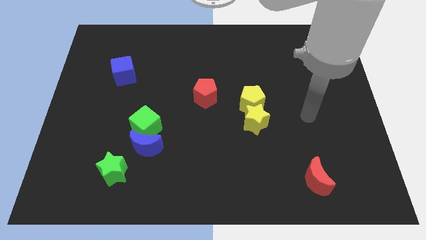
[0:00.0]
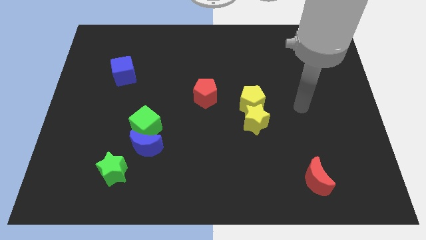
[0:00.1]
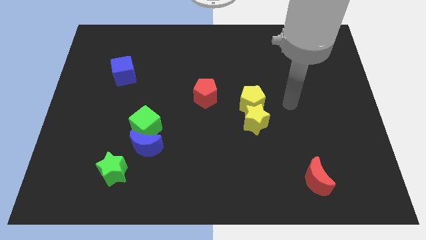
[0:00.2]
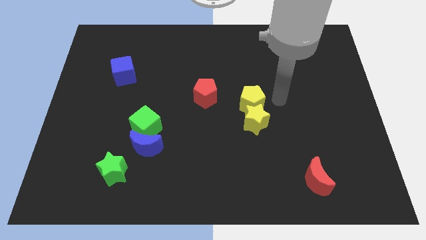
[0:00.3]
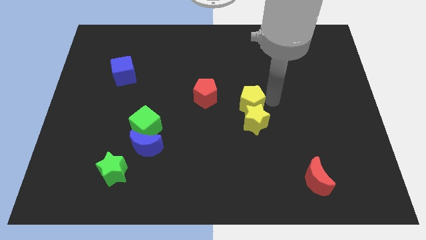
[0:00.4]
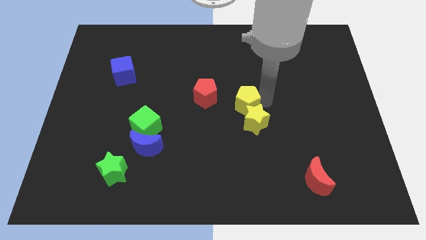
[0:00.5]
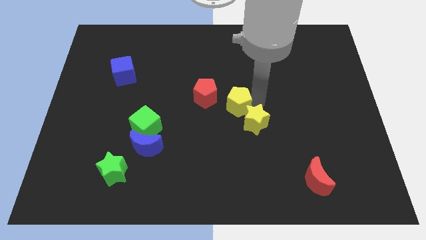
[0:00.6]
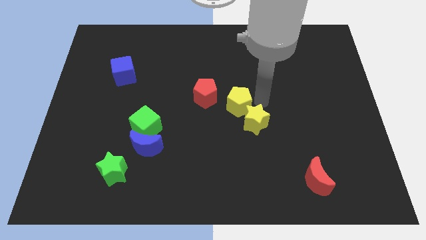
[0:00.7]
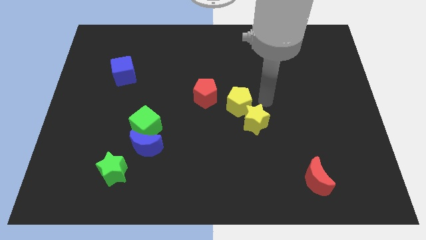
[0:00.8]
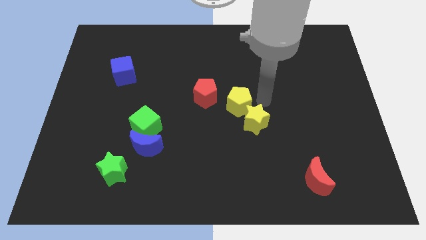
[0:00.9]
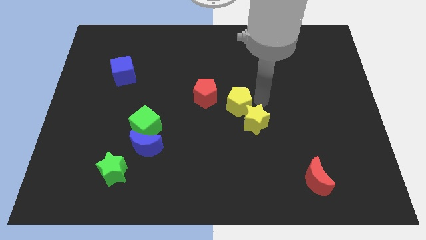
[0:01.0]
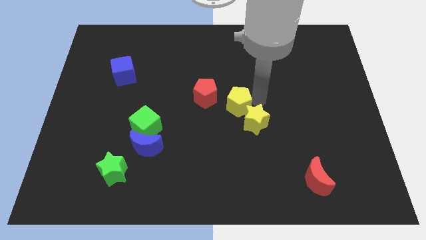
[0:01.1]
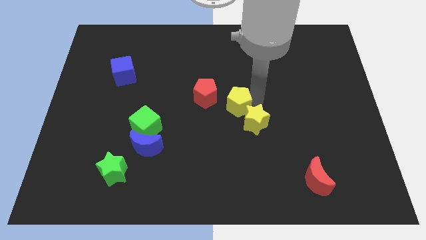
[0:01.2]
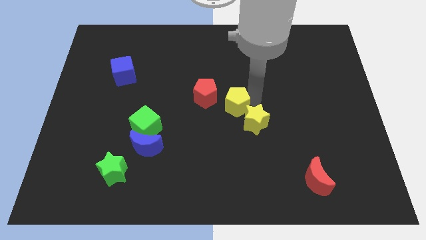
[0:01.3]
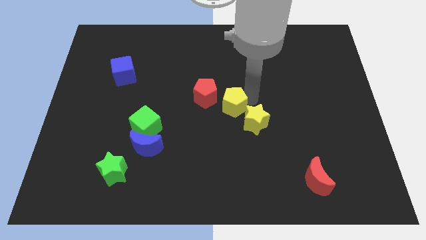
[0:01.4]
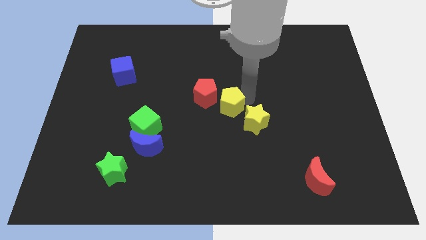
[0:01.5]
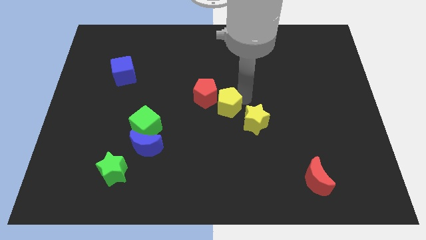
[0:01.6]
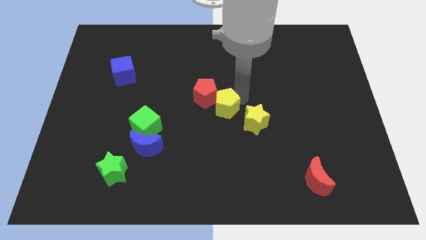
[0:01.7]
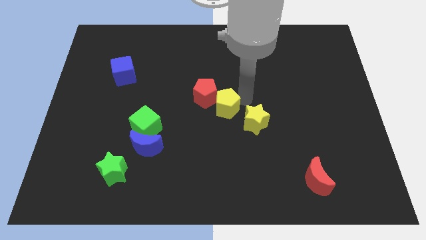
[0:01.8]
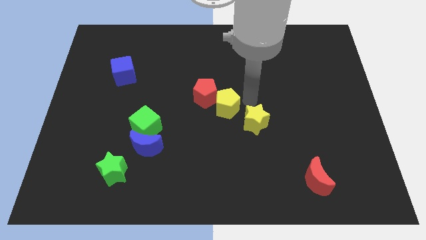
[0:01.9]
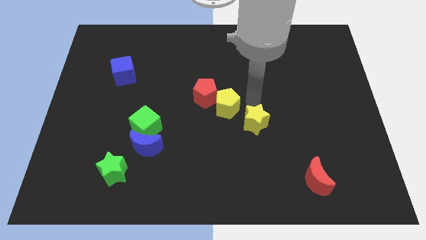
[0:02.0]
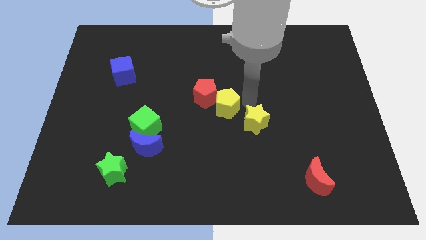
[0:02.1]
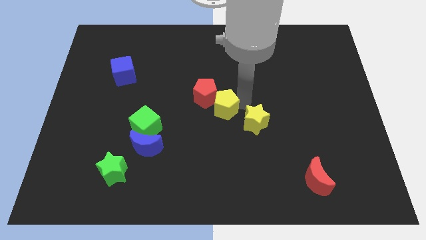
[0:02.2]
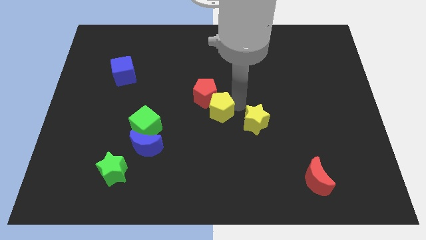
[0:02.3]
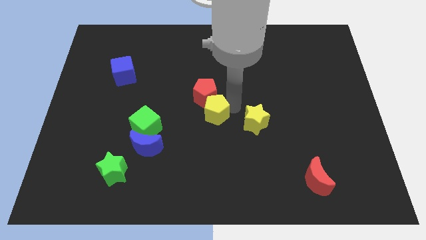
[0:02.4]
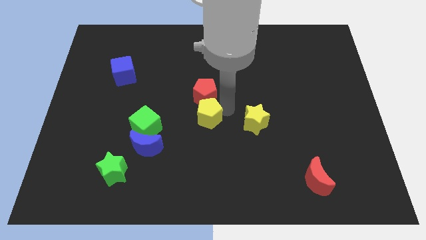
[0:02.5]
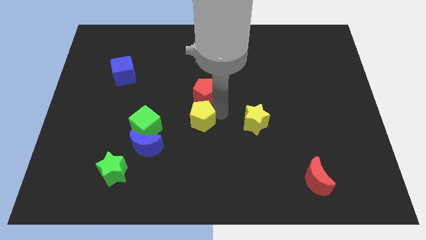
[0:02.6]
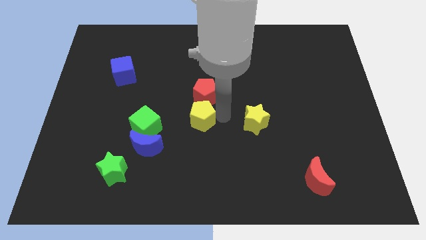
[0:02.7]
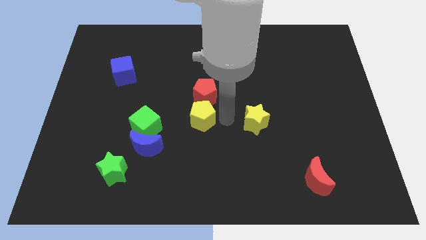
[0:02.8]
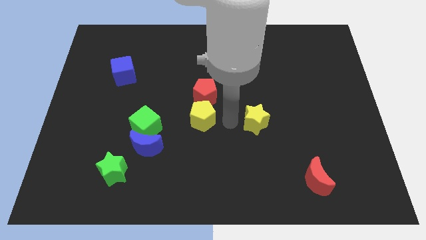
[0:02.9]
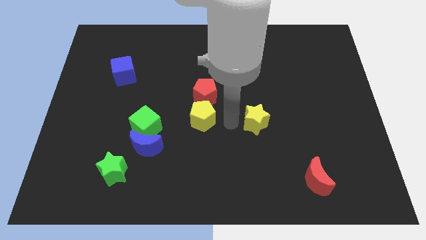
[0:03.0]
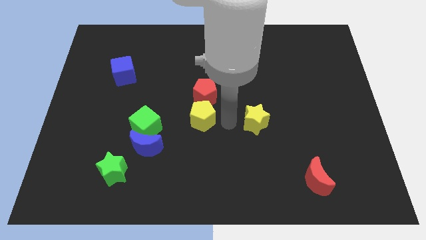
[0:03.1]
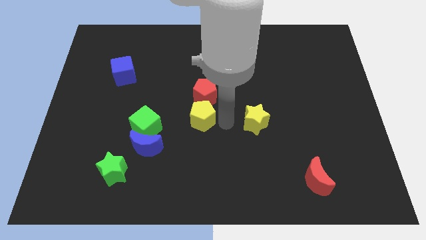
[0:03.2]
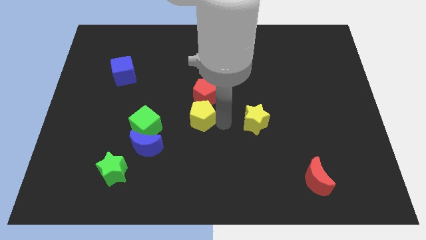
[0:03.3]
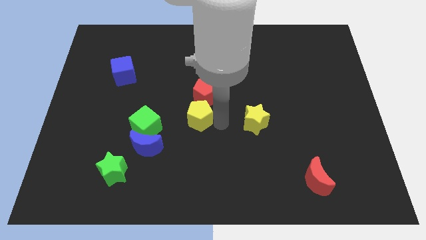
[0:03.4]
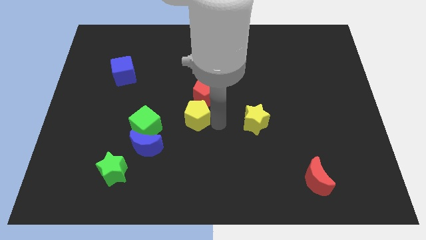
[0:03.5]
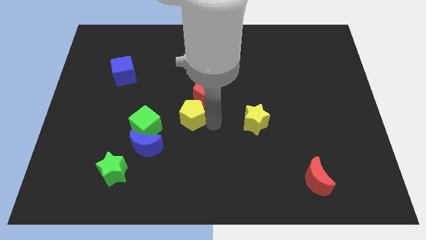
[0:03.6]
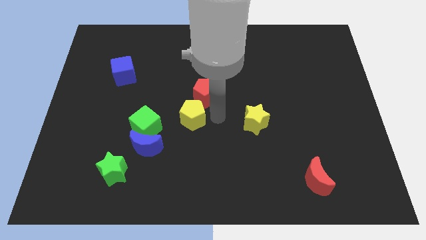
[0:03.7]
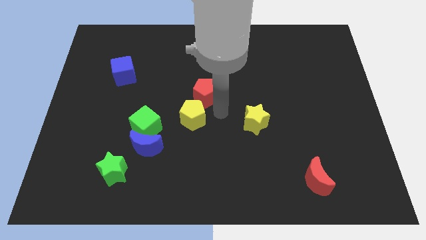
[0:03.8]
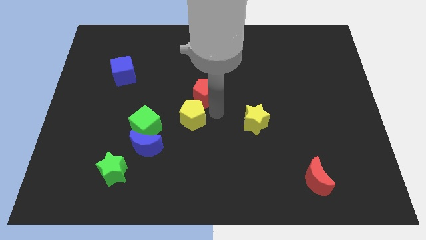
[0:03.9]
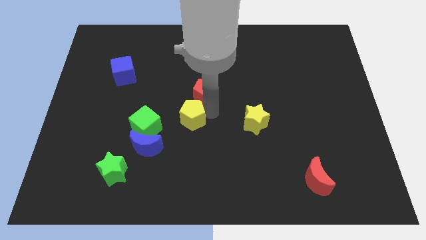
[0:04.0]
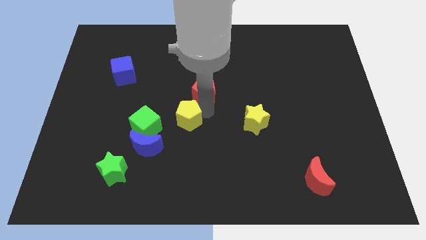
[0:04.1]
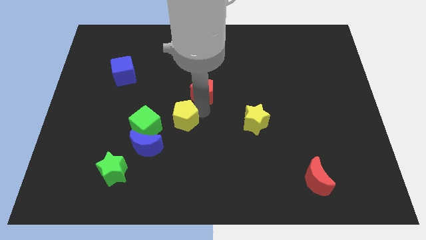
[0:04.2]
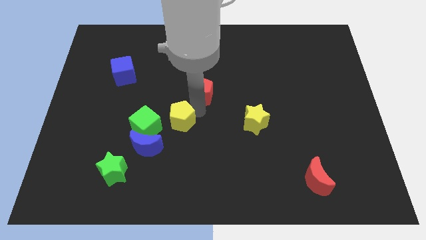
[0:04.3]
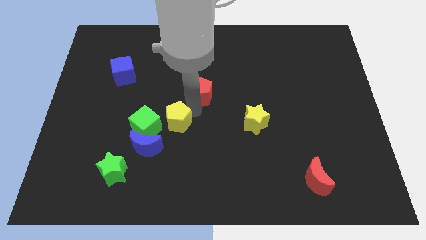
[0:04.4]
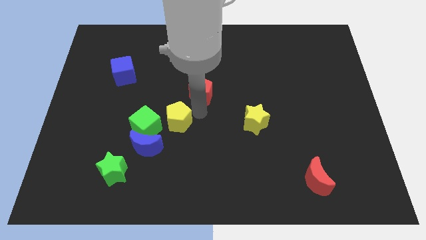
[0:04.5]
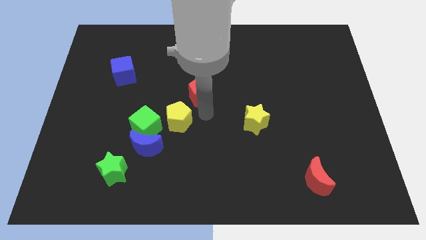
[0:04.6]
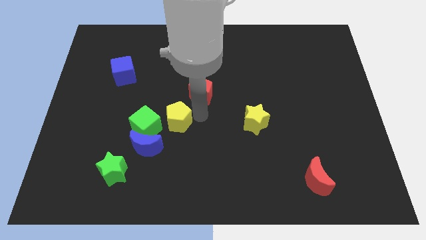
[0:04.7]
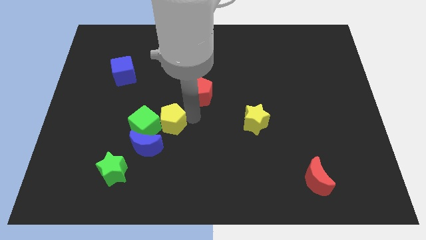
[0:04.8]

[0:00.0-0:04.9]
put the yellow pentagon to the green cube

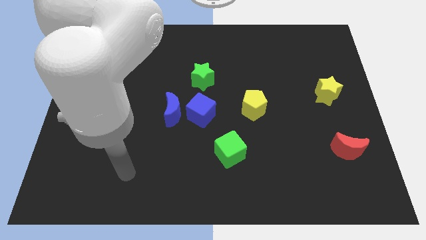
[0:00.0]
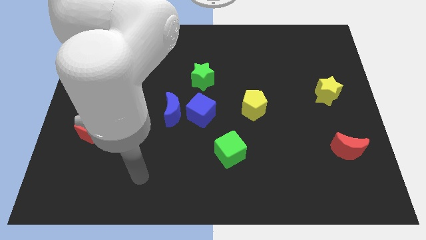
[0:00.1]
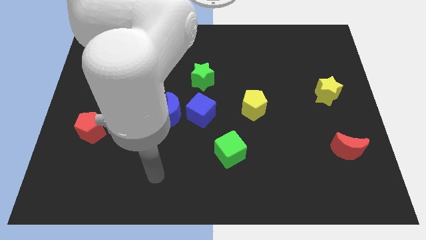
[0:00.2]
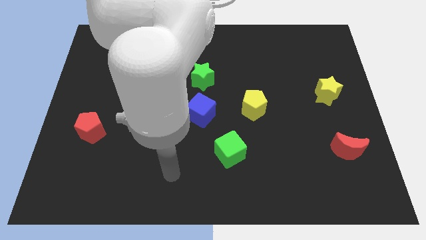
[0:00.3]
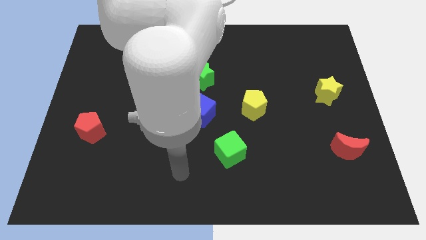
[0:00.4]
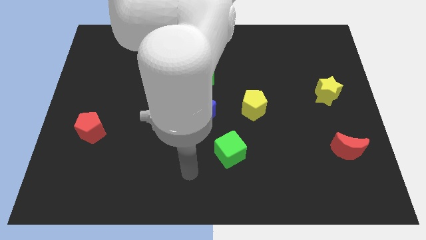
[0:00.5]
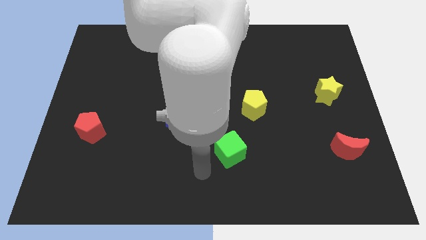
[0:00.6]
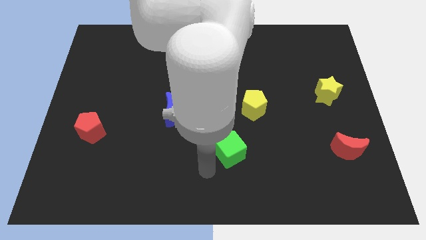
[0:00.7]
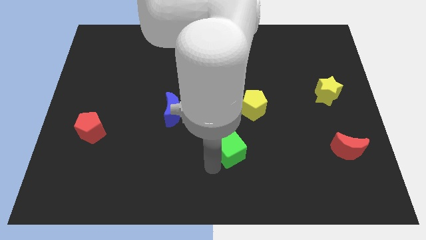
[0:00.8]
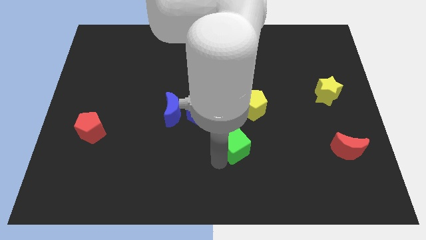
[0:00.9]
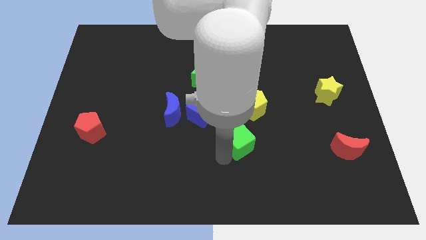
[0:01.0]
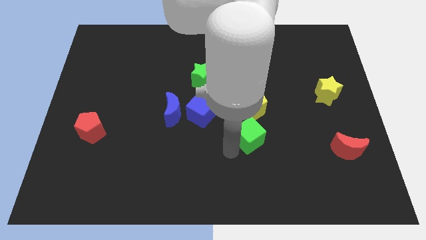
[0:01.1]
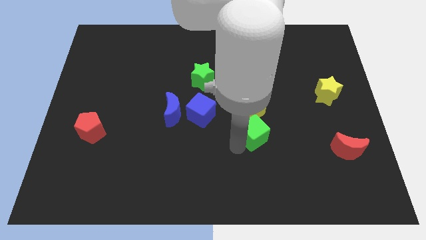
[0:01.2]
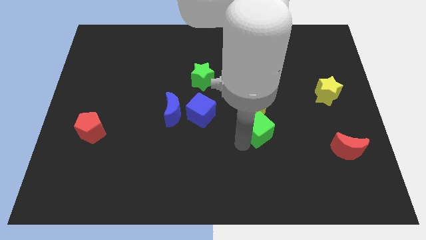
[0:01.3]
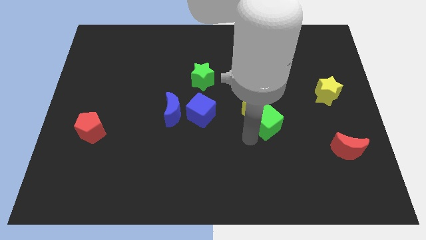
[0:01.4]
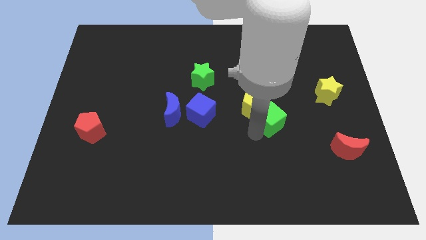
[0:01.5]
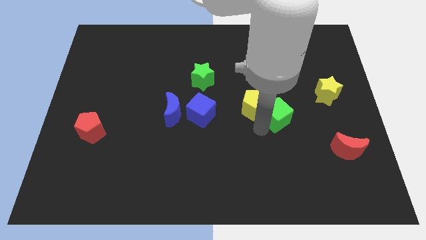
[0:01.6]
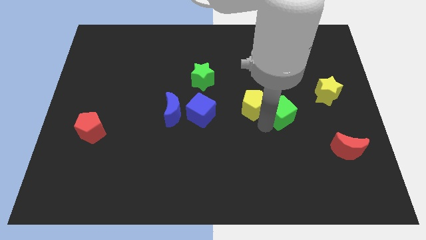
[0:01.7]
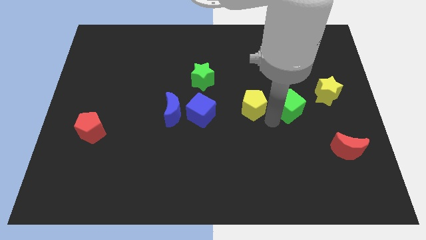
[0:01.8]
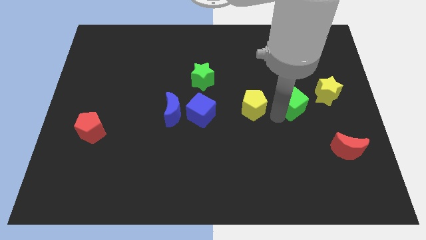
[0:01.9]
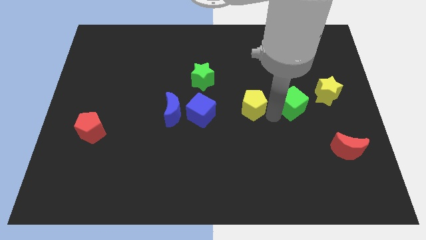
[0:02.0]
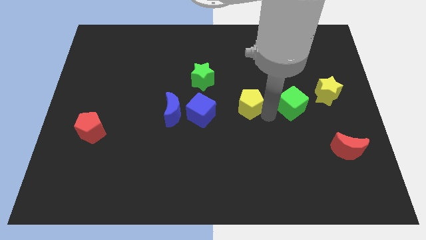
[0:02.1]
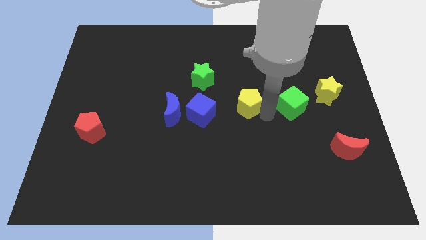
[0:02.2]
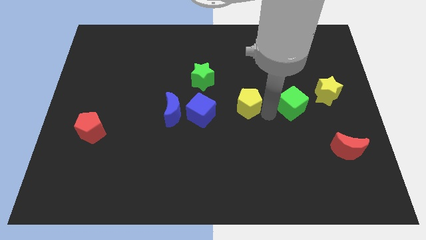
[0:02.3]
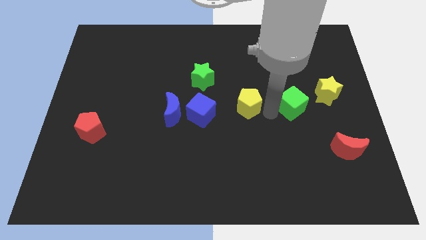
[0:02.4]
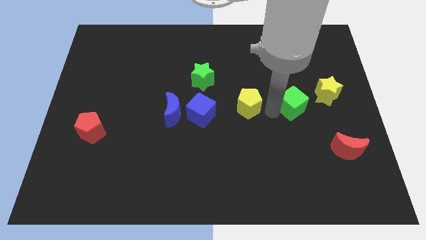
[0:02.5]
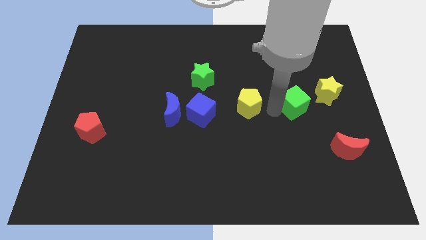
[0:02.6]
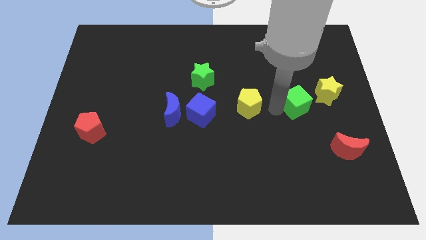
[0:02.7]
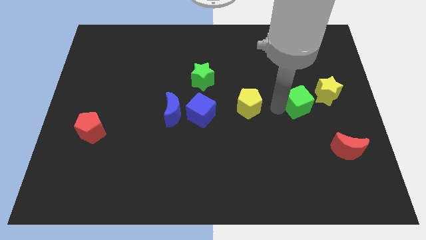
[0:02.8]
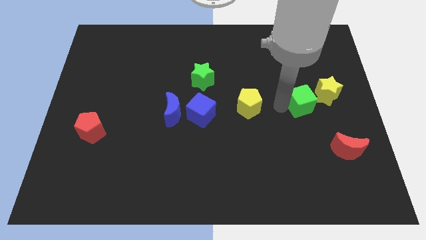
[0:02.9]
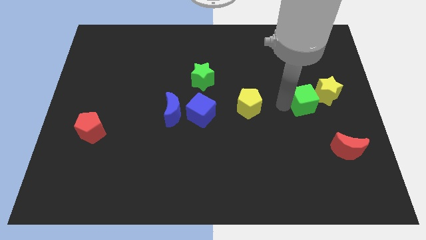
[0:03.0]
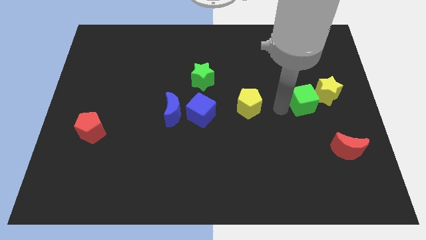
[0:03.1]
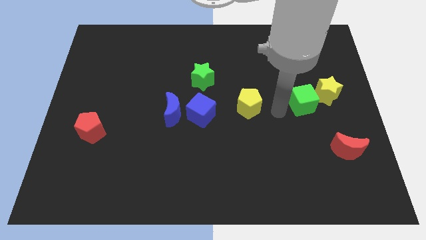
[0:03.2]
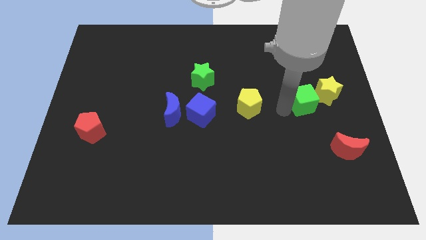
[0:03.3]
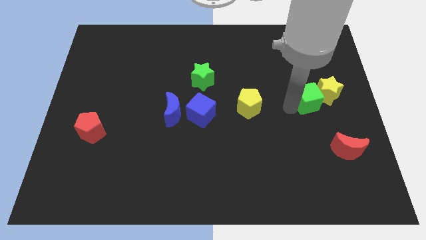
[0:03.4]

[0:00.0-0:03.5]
slide the green cube to the yellow star
